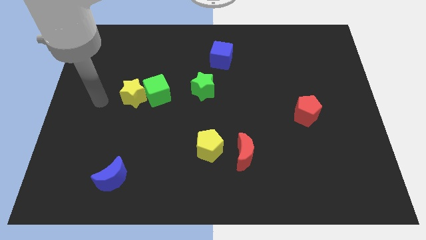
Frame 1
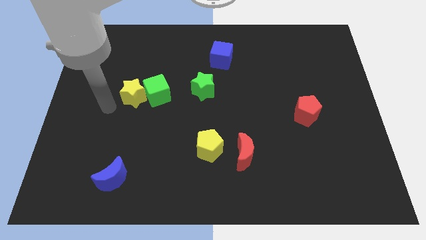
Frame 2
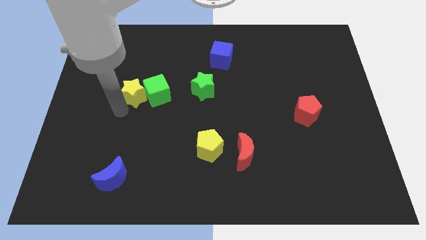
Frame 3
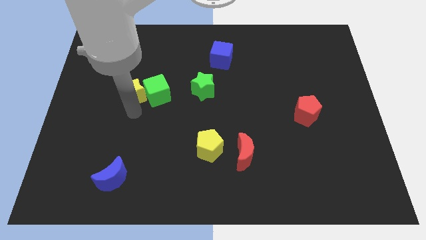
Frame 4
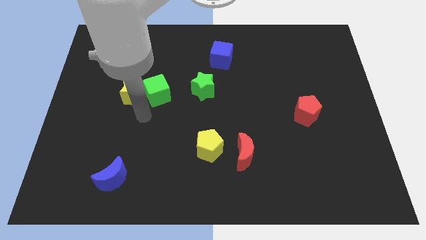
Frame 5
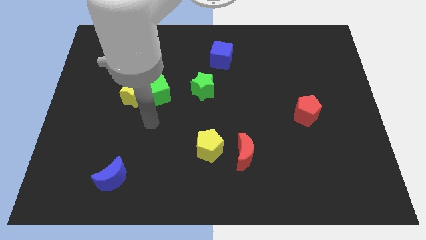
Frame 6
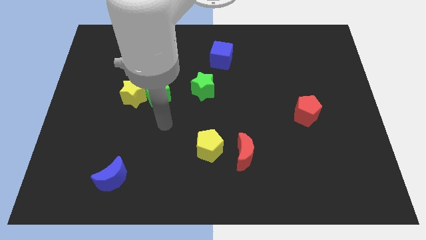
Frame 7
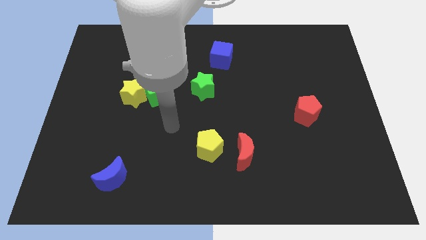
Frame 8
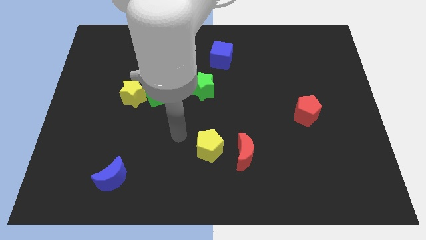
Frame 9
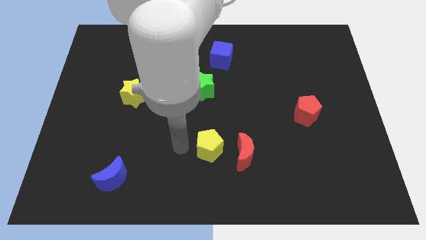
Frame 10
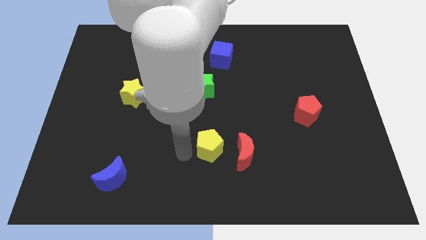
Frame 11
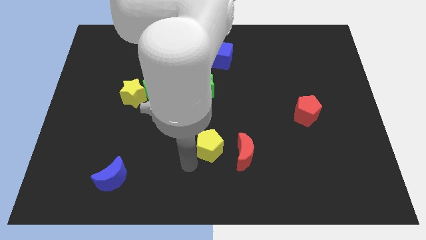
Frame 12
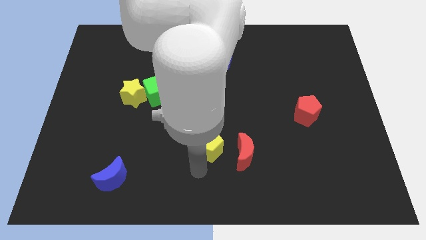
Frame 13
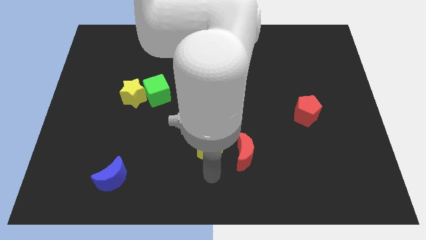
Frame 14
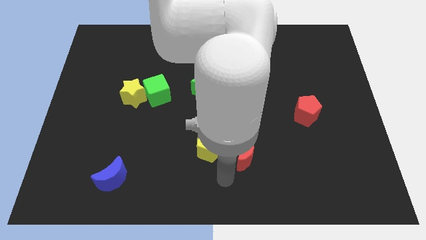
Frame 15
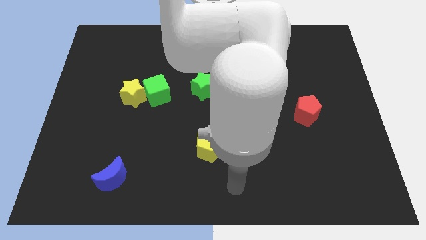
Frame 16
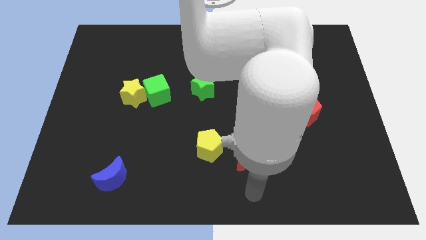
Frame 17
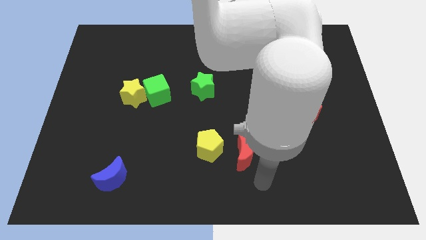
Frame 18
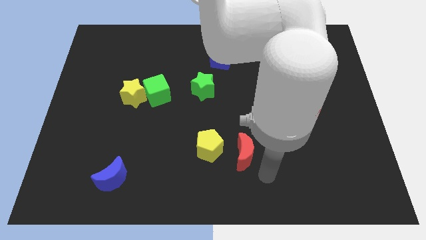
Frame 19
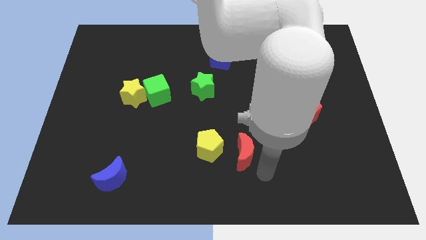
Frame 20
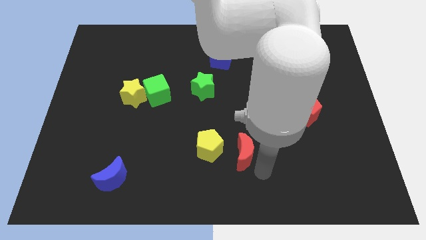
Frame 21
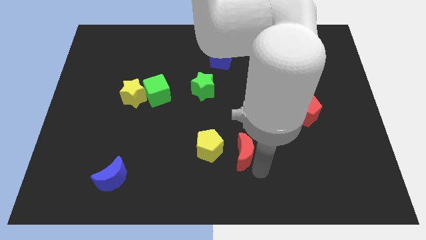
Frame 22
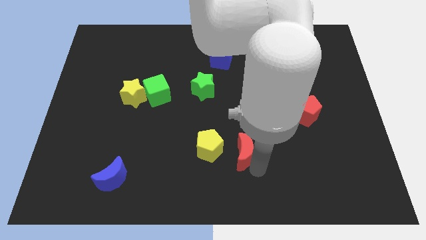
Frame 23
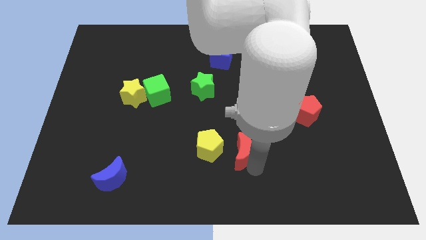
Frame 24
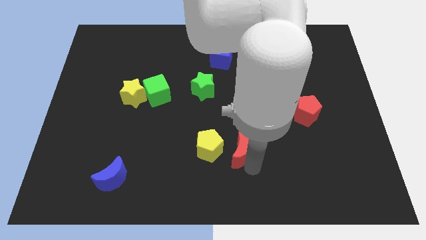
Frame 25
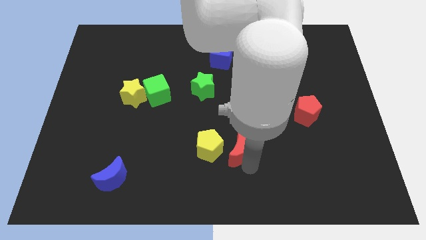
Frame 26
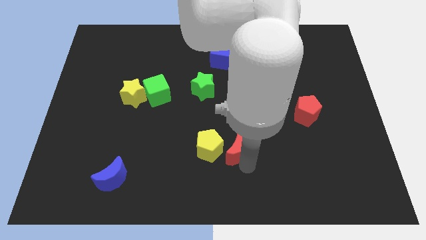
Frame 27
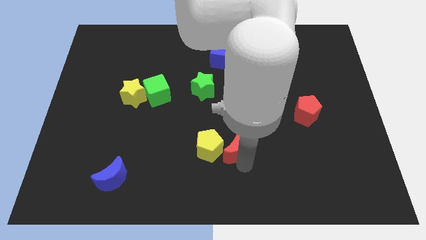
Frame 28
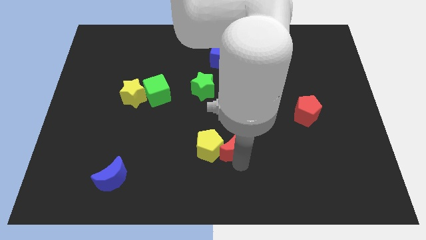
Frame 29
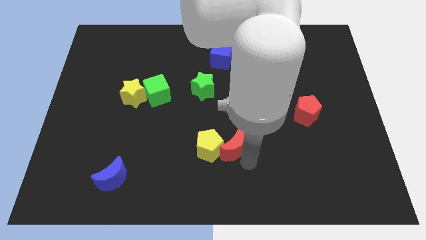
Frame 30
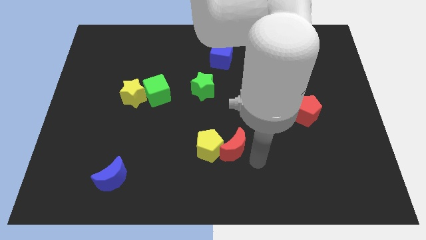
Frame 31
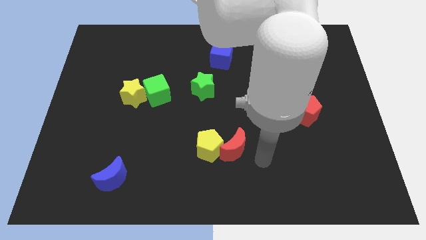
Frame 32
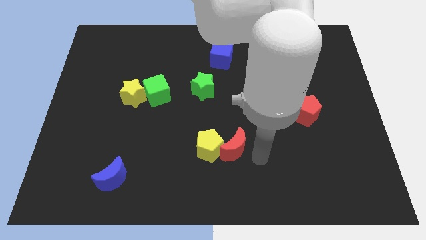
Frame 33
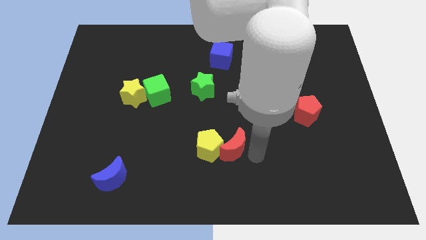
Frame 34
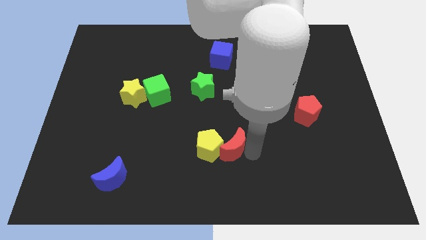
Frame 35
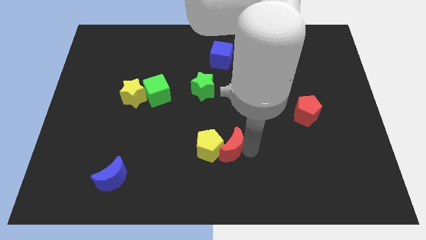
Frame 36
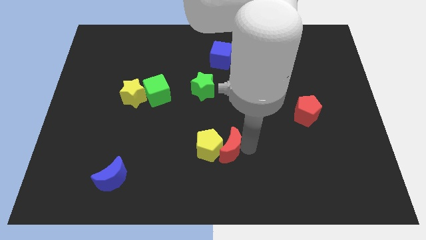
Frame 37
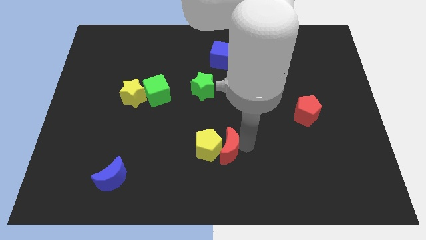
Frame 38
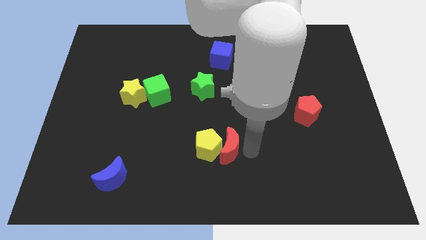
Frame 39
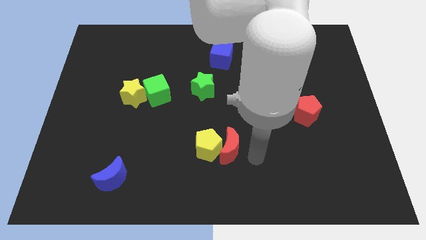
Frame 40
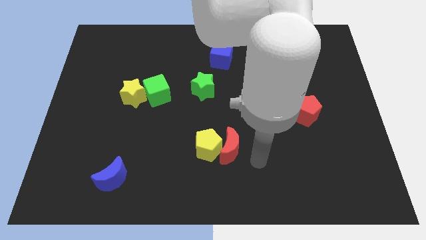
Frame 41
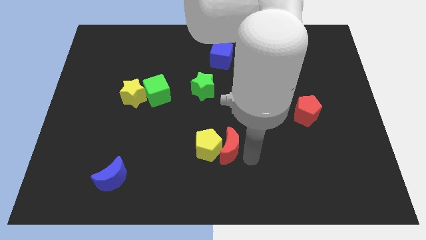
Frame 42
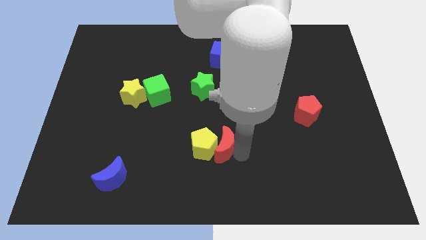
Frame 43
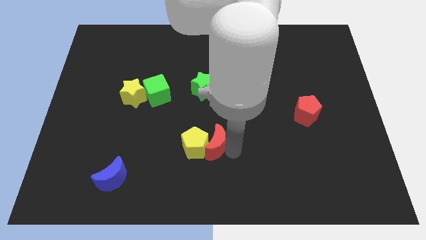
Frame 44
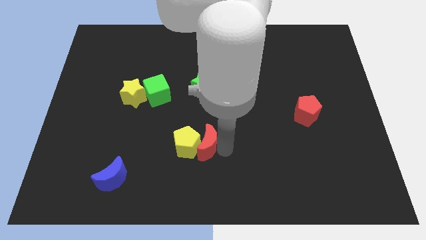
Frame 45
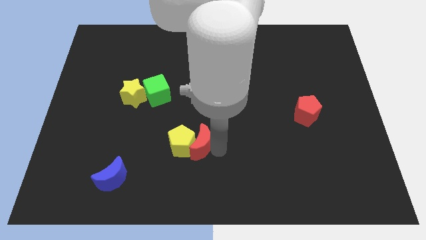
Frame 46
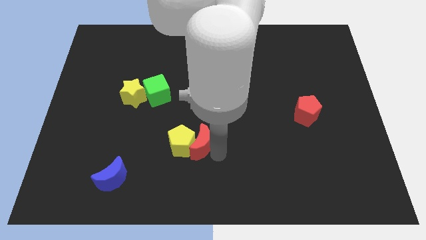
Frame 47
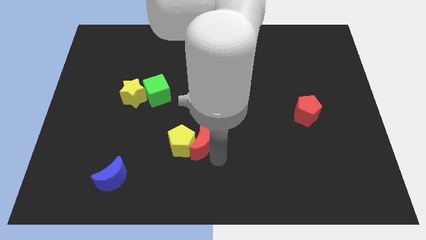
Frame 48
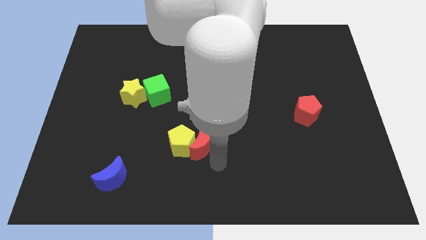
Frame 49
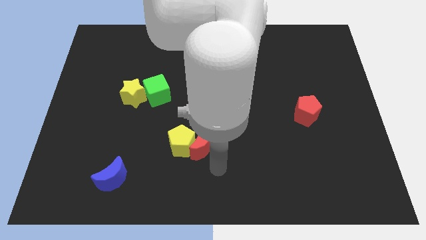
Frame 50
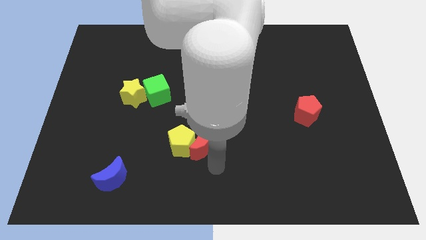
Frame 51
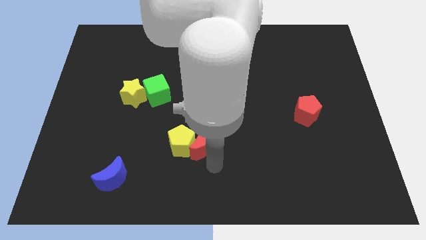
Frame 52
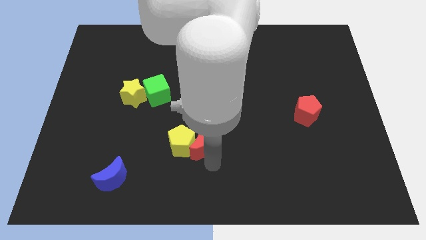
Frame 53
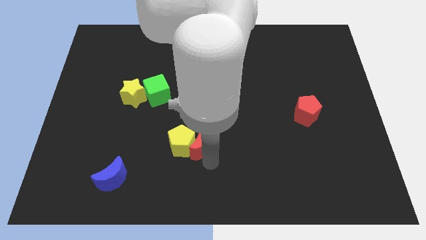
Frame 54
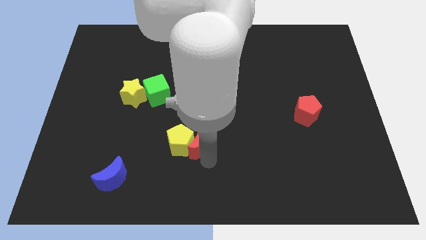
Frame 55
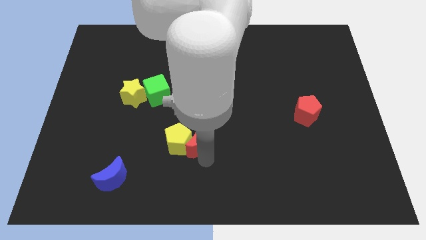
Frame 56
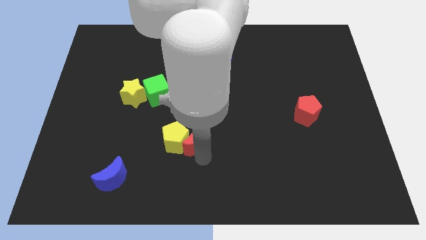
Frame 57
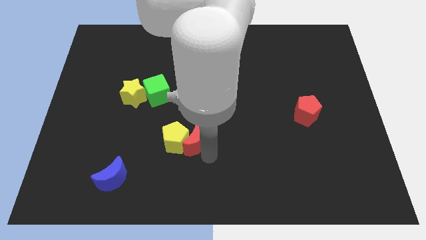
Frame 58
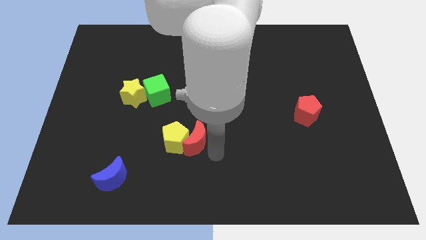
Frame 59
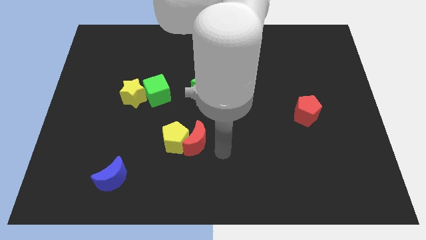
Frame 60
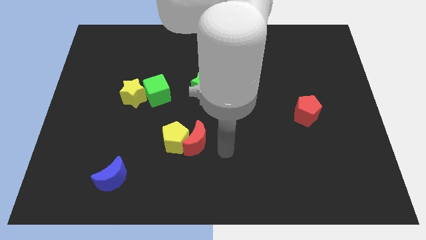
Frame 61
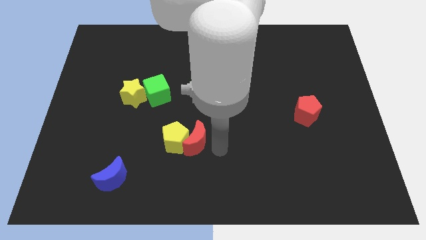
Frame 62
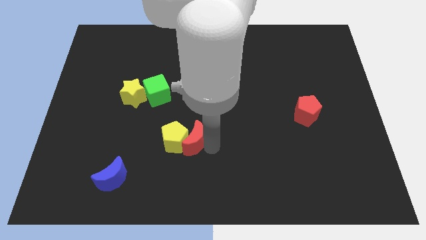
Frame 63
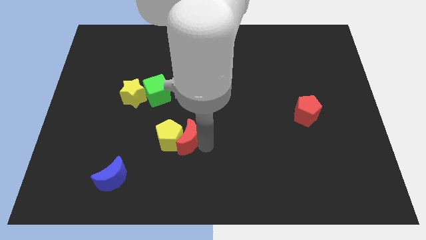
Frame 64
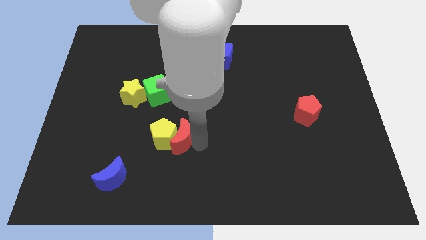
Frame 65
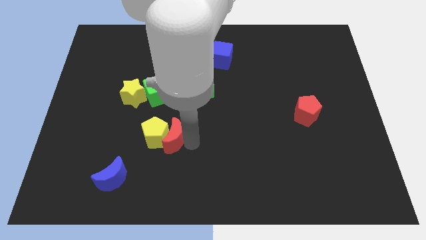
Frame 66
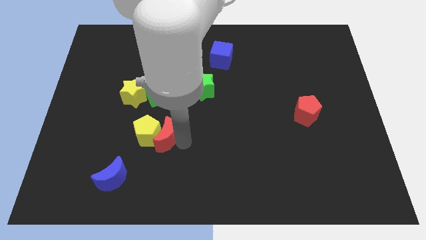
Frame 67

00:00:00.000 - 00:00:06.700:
move the red moon below the green cube

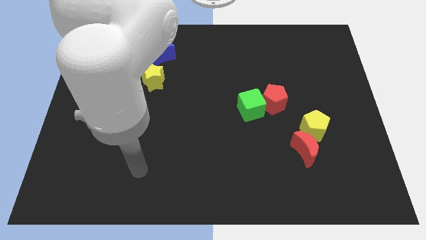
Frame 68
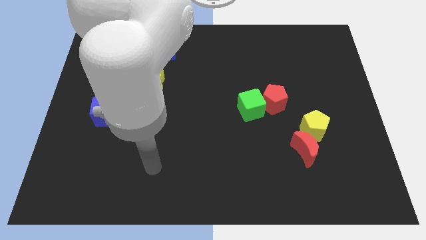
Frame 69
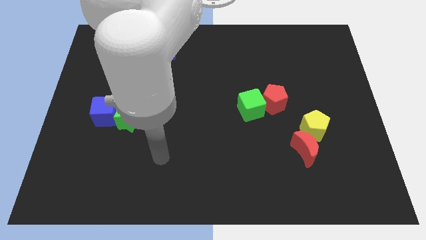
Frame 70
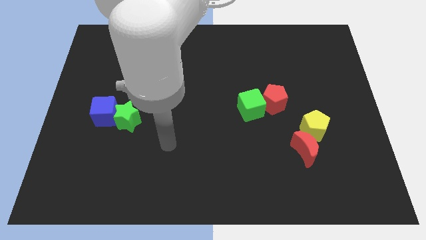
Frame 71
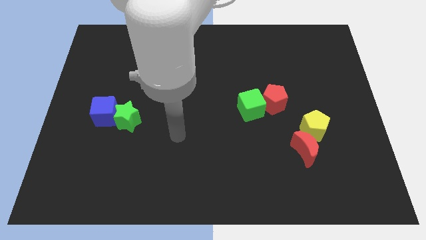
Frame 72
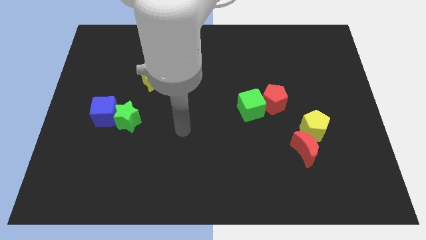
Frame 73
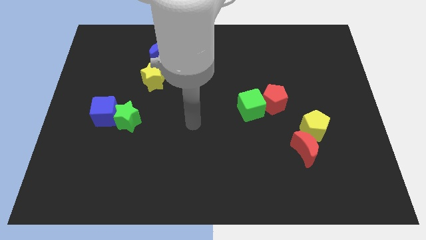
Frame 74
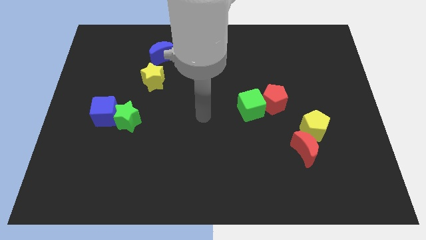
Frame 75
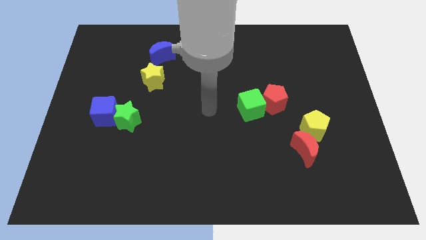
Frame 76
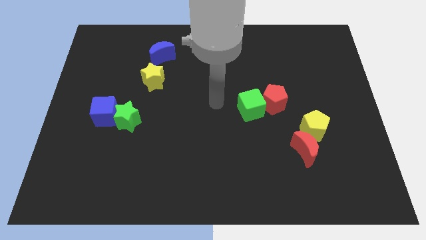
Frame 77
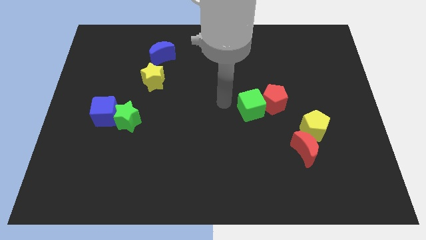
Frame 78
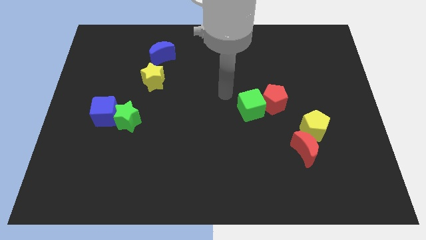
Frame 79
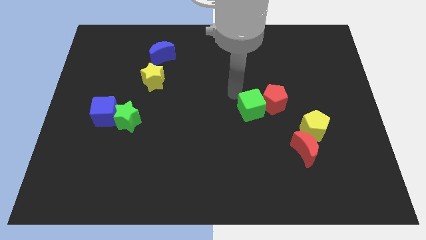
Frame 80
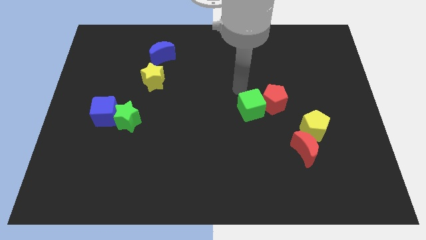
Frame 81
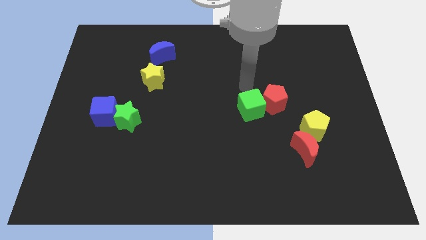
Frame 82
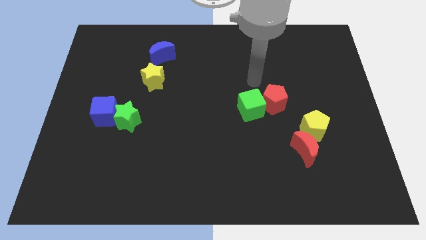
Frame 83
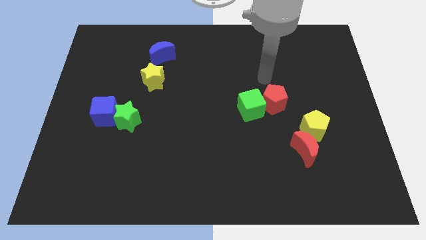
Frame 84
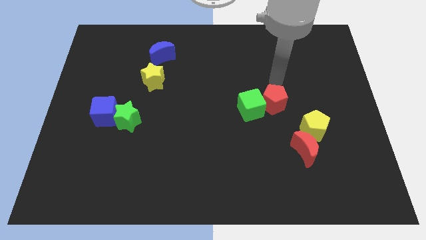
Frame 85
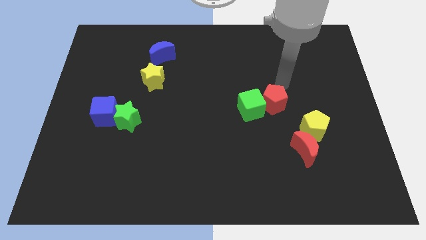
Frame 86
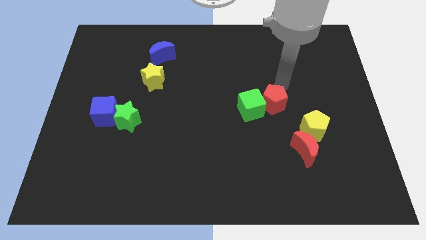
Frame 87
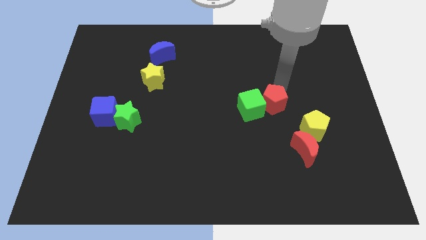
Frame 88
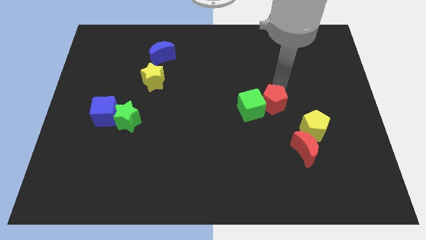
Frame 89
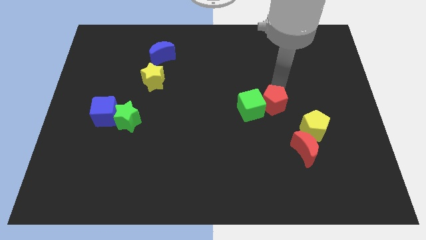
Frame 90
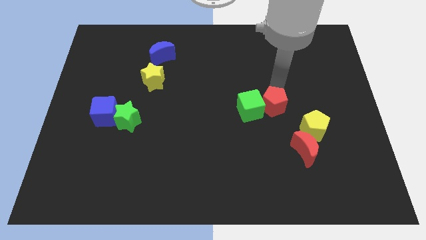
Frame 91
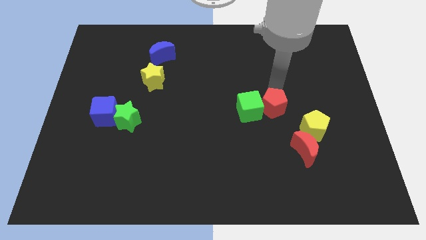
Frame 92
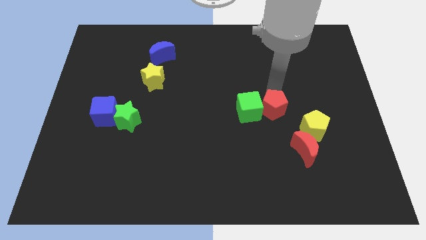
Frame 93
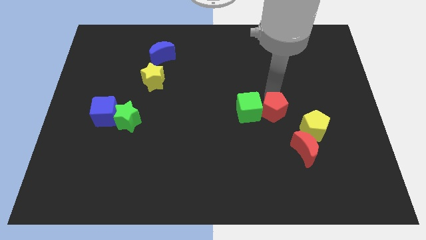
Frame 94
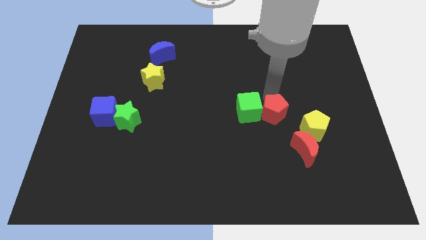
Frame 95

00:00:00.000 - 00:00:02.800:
move the red pentagon left of the yellow pentagon
